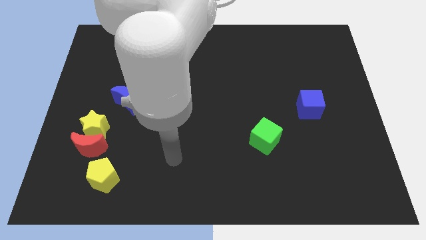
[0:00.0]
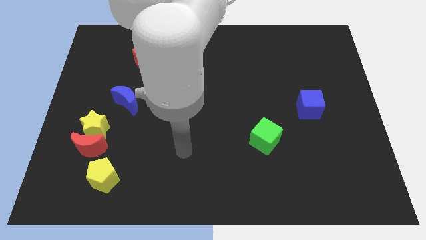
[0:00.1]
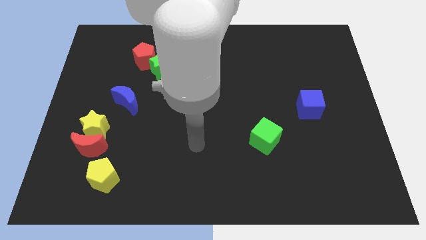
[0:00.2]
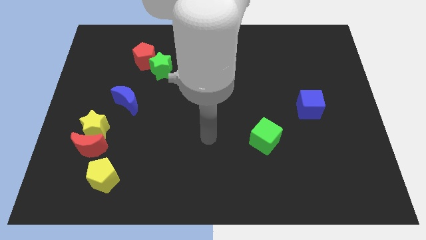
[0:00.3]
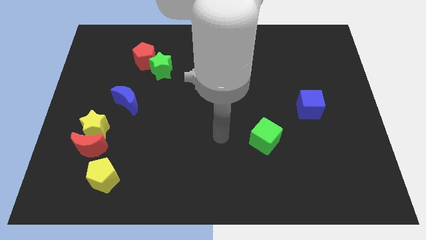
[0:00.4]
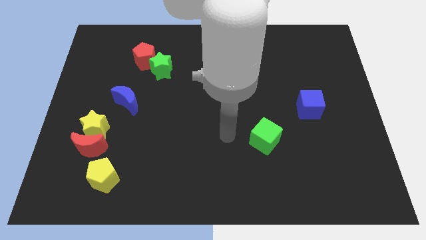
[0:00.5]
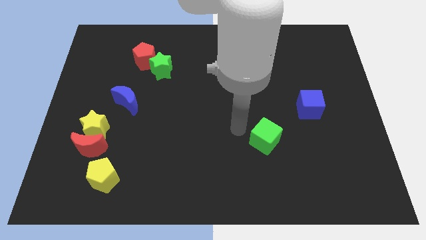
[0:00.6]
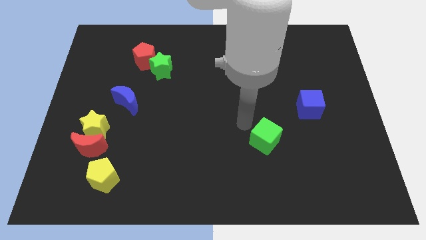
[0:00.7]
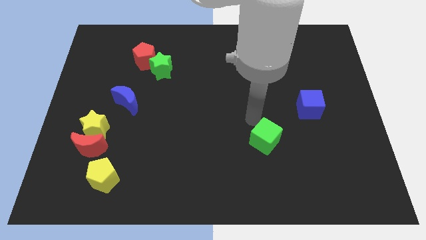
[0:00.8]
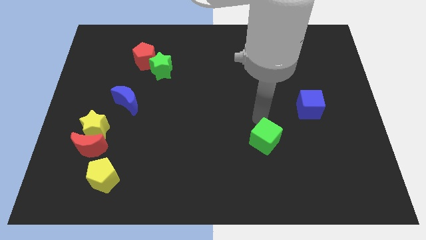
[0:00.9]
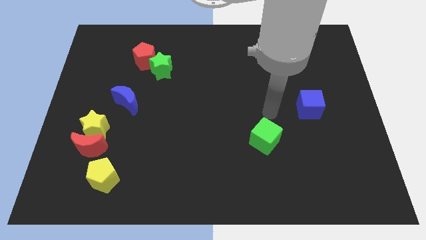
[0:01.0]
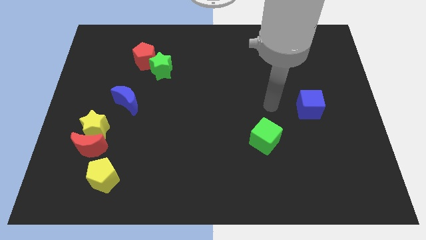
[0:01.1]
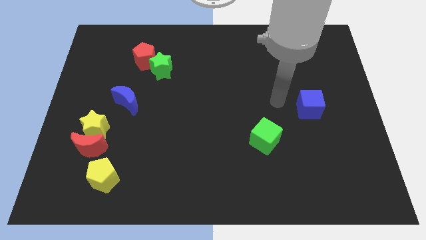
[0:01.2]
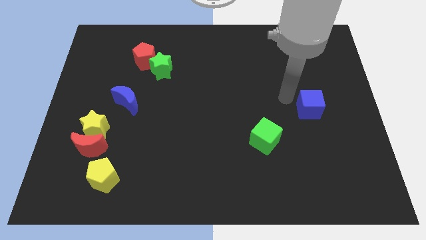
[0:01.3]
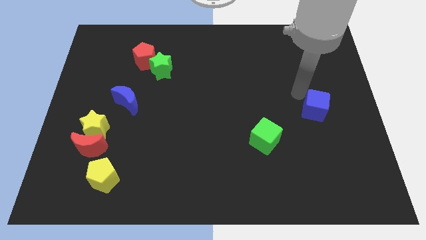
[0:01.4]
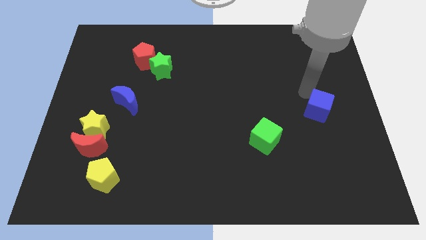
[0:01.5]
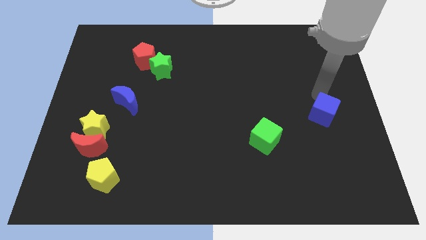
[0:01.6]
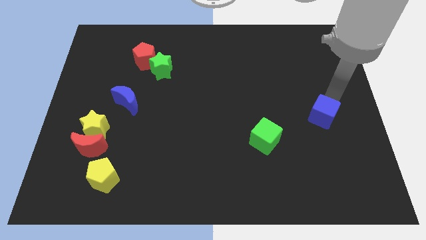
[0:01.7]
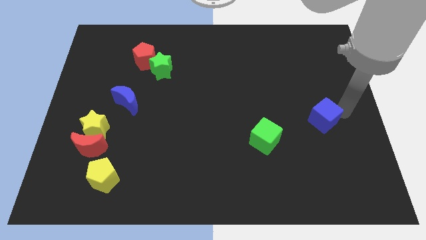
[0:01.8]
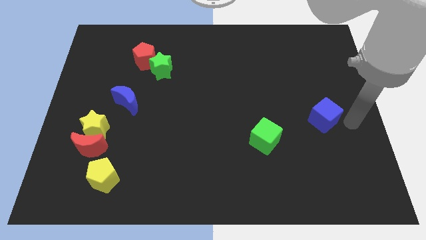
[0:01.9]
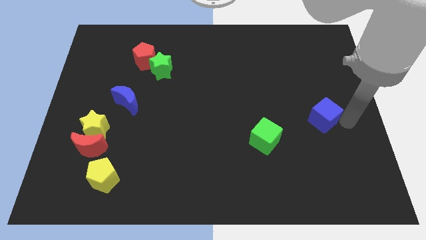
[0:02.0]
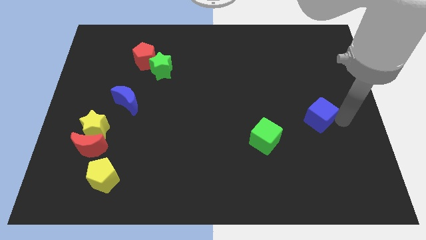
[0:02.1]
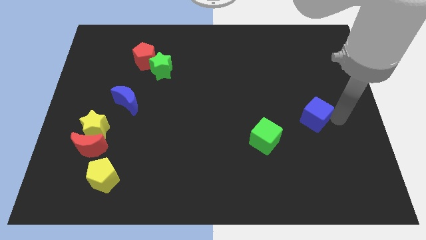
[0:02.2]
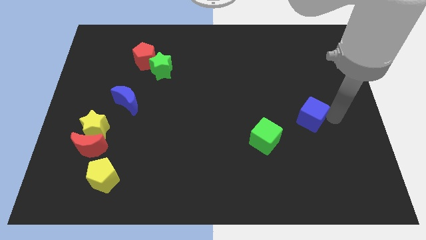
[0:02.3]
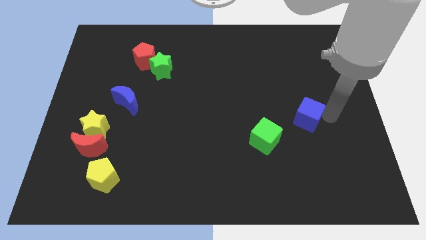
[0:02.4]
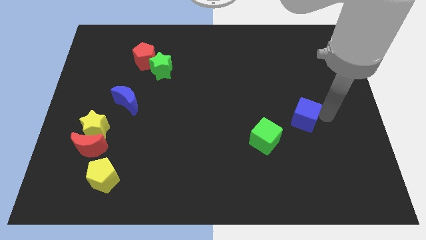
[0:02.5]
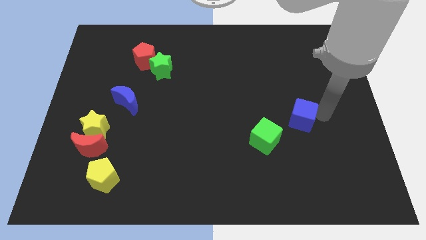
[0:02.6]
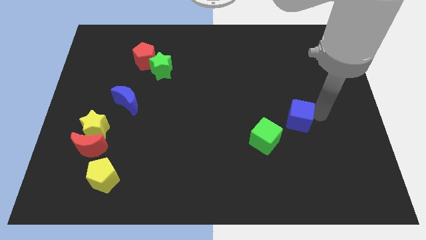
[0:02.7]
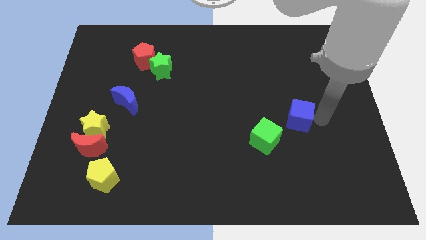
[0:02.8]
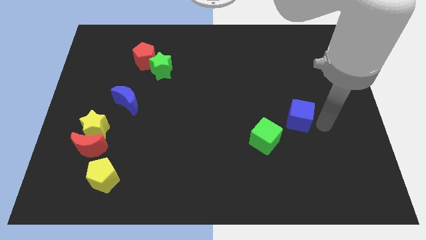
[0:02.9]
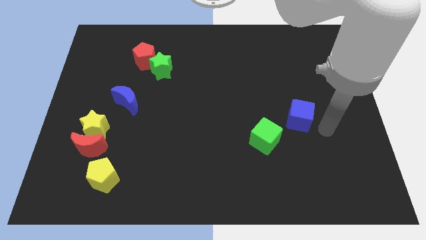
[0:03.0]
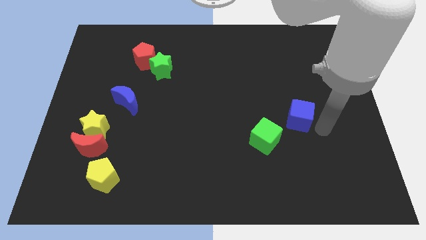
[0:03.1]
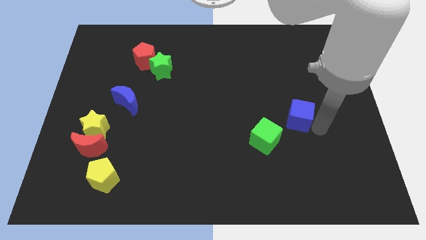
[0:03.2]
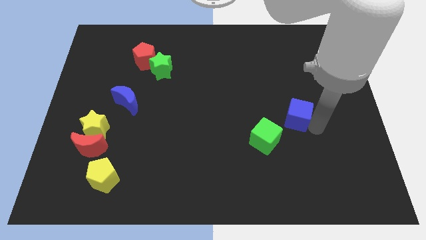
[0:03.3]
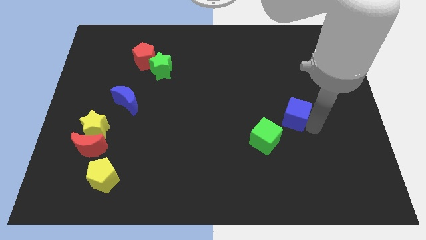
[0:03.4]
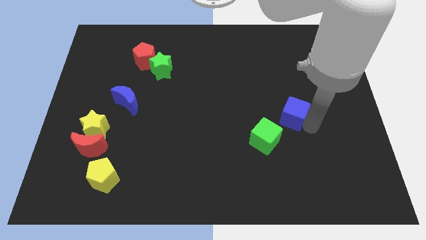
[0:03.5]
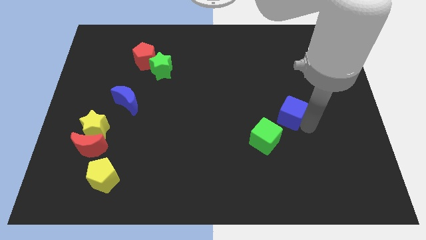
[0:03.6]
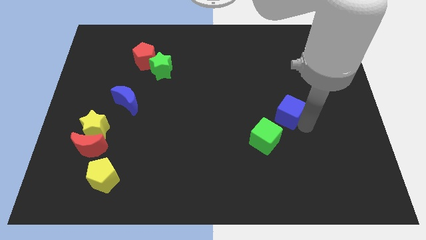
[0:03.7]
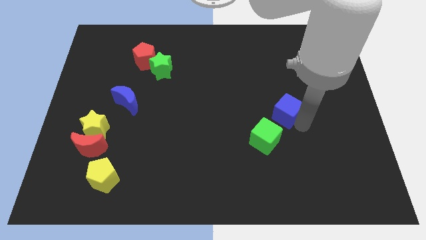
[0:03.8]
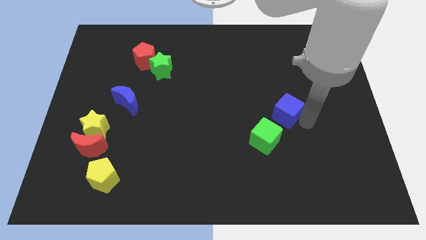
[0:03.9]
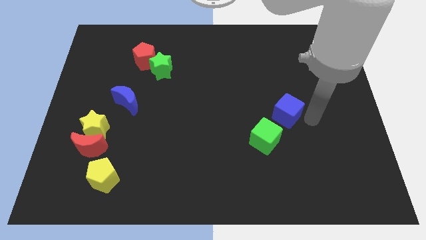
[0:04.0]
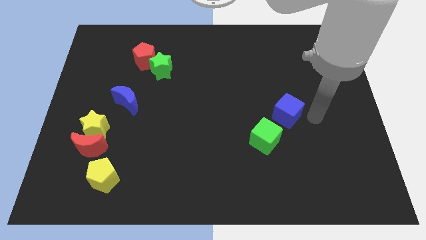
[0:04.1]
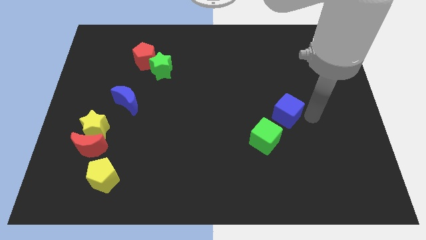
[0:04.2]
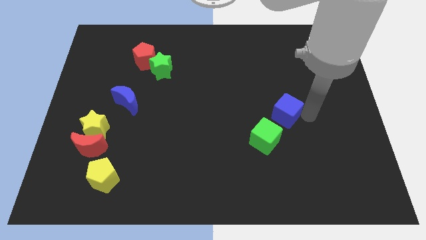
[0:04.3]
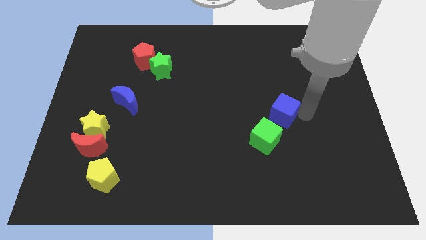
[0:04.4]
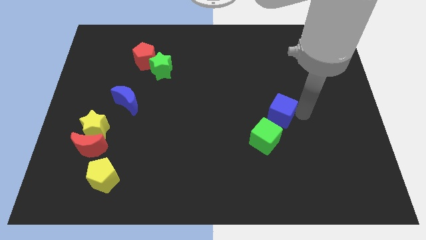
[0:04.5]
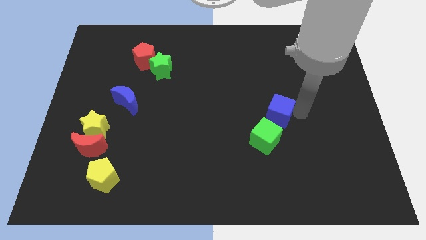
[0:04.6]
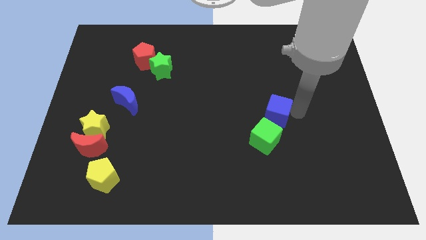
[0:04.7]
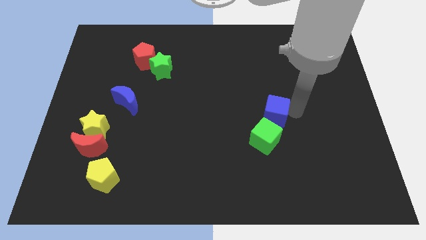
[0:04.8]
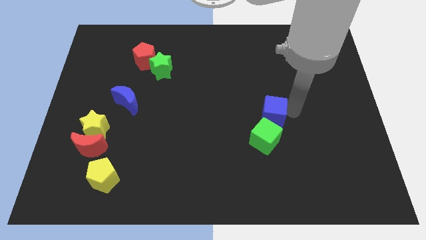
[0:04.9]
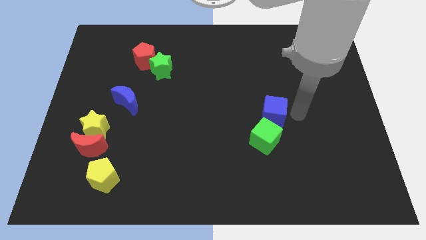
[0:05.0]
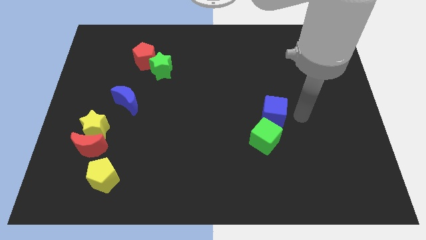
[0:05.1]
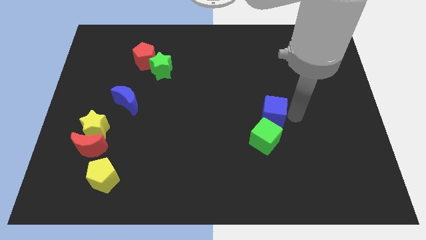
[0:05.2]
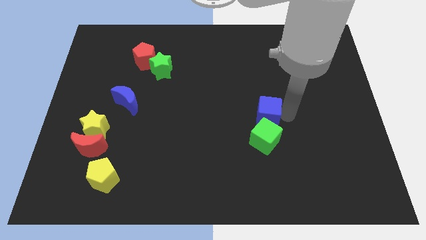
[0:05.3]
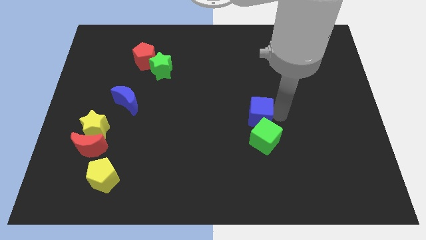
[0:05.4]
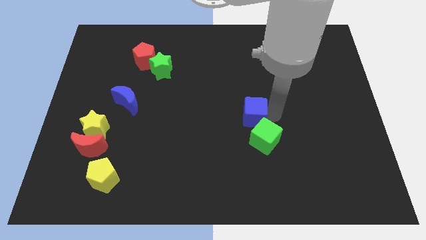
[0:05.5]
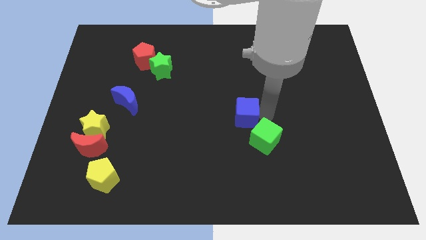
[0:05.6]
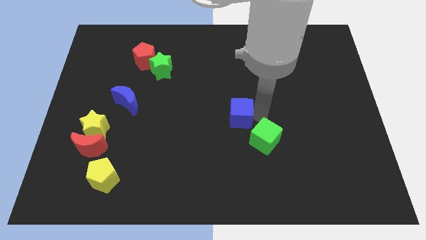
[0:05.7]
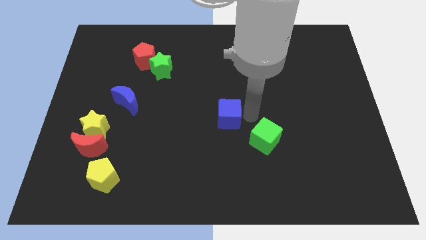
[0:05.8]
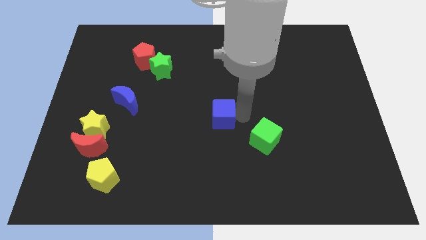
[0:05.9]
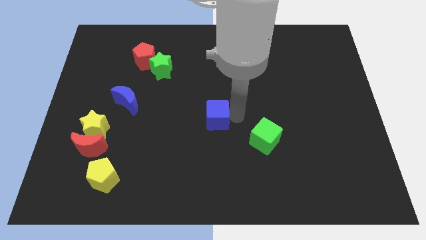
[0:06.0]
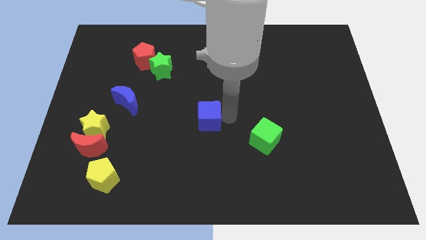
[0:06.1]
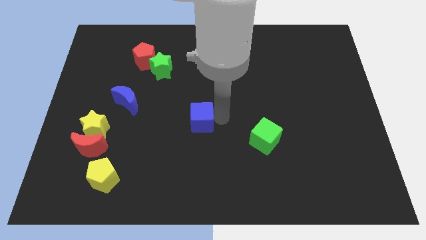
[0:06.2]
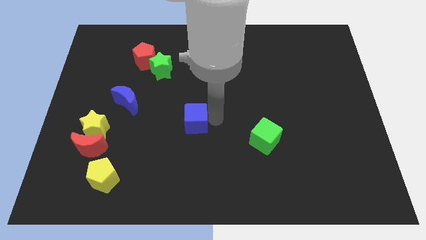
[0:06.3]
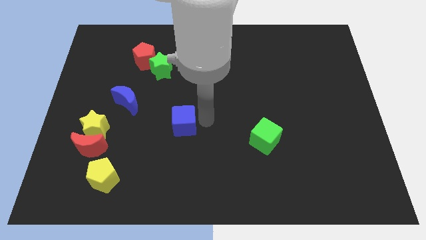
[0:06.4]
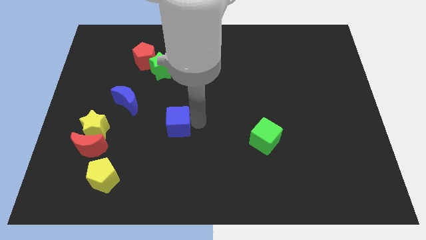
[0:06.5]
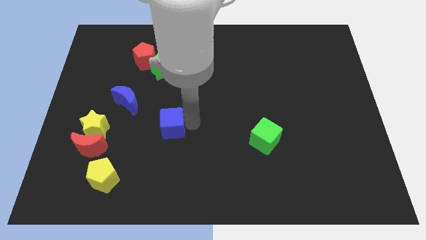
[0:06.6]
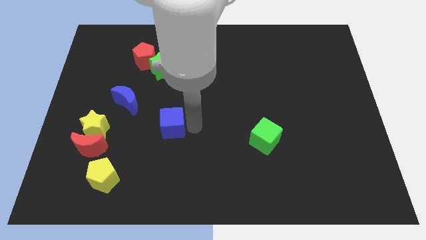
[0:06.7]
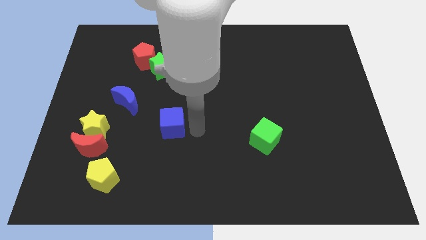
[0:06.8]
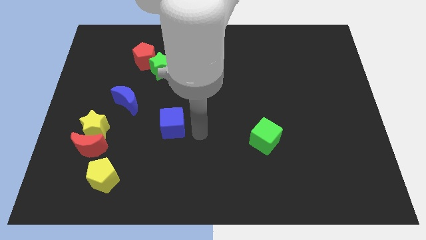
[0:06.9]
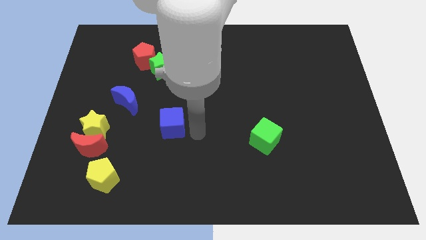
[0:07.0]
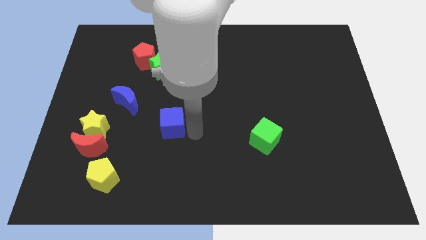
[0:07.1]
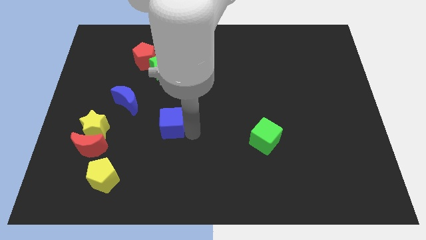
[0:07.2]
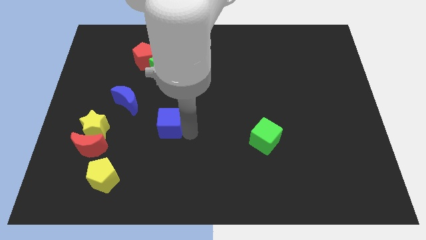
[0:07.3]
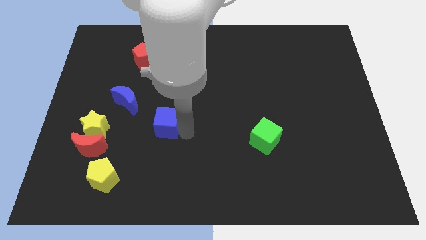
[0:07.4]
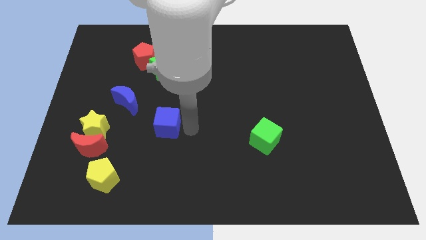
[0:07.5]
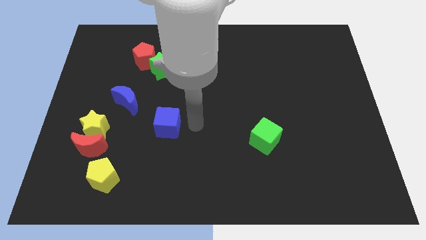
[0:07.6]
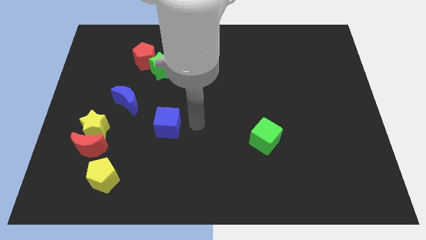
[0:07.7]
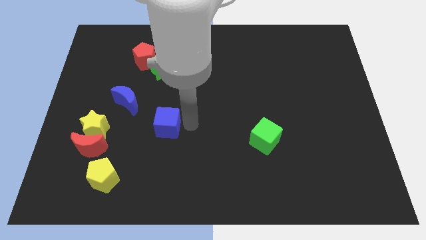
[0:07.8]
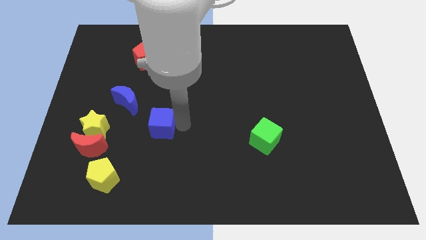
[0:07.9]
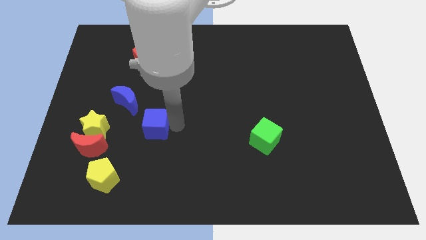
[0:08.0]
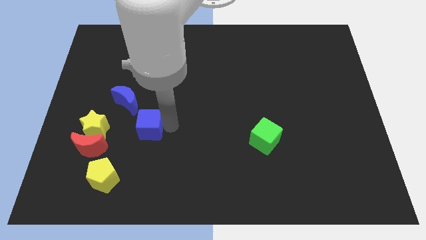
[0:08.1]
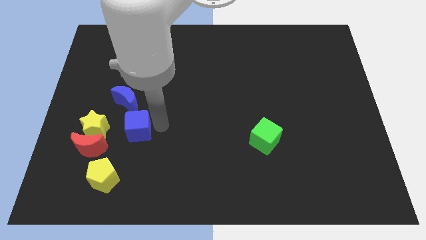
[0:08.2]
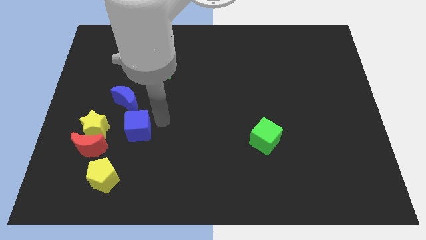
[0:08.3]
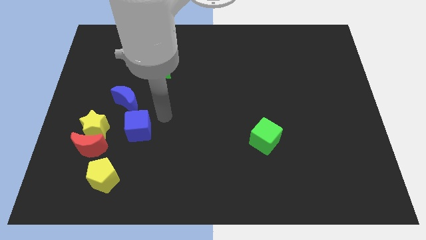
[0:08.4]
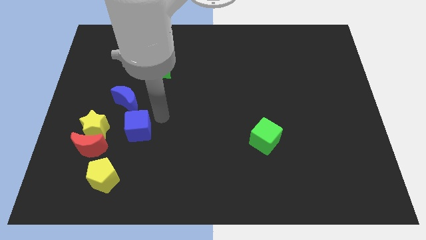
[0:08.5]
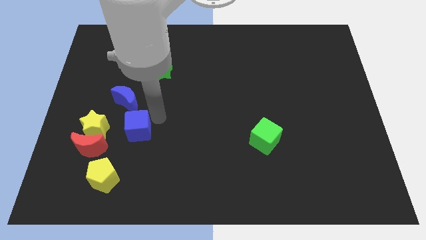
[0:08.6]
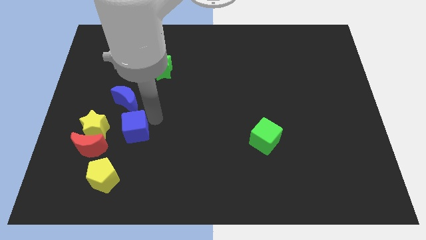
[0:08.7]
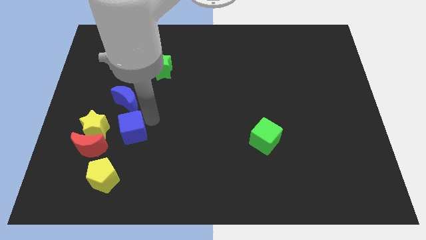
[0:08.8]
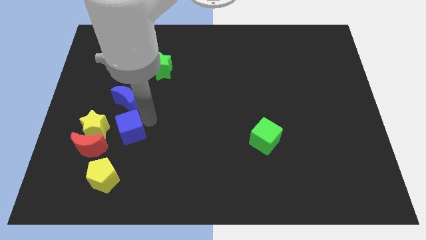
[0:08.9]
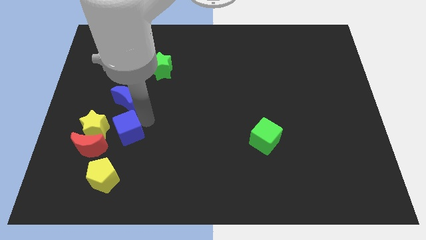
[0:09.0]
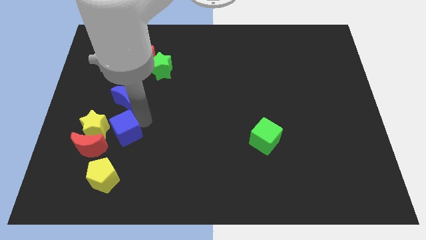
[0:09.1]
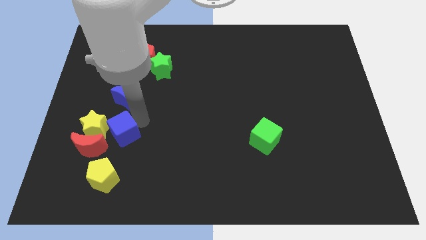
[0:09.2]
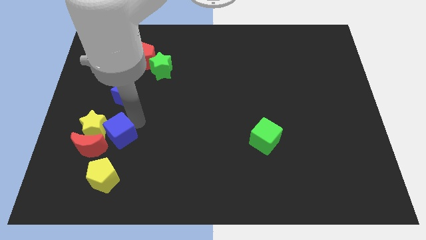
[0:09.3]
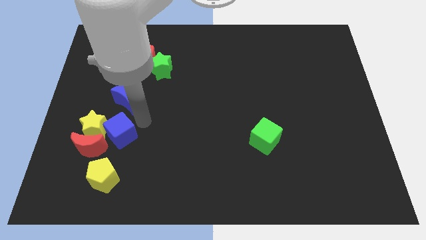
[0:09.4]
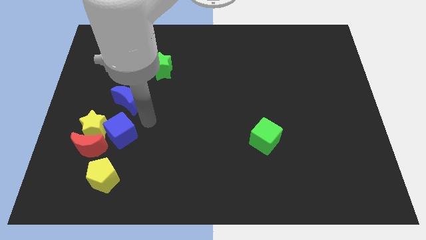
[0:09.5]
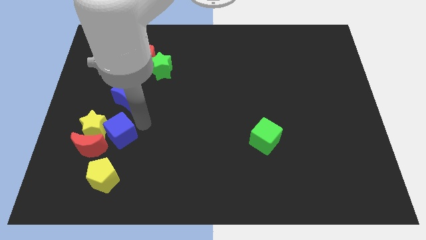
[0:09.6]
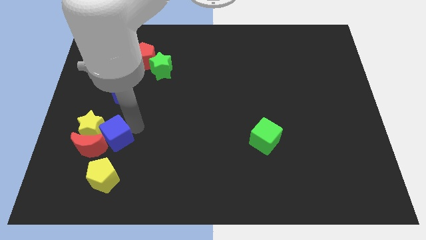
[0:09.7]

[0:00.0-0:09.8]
slide the blue cube close to the red moon
